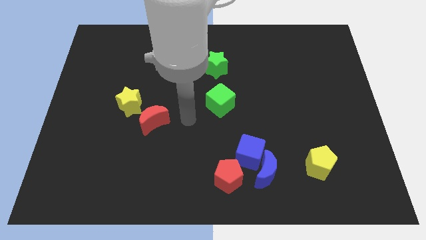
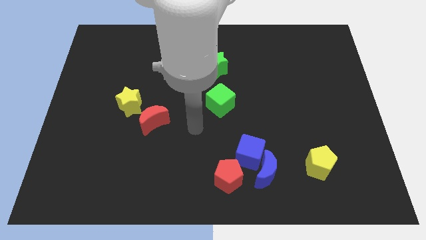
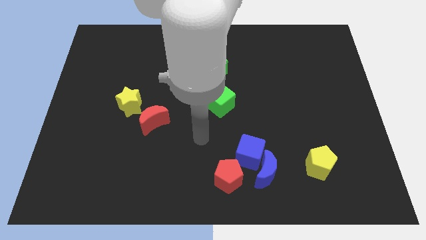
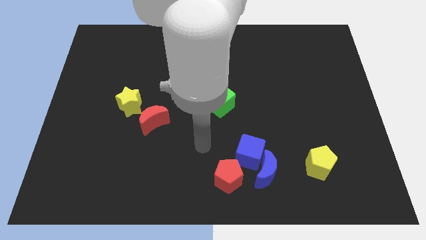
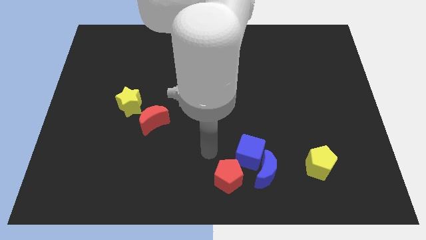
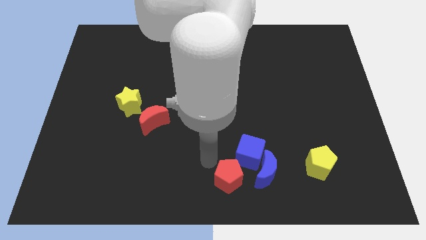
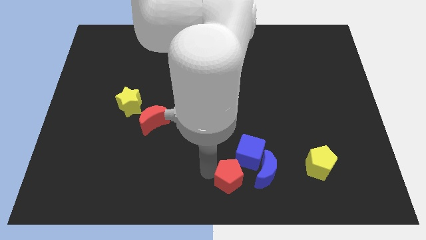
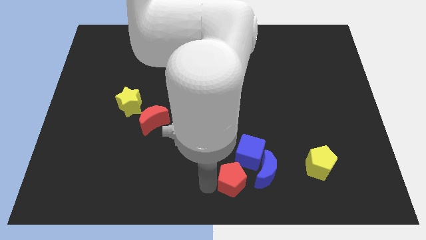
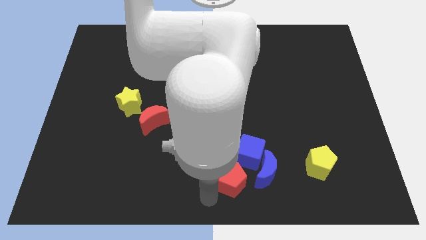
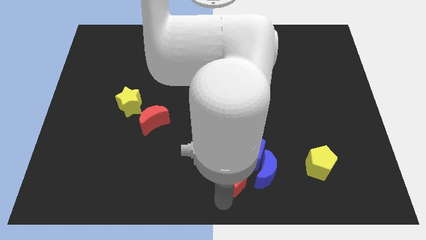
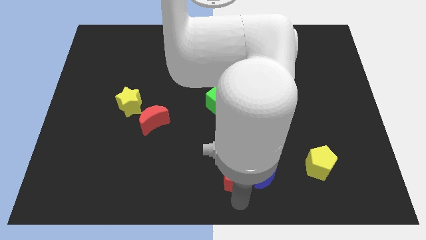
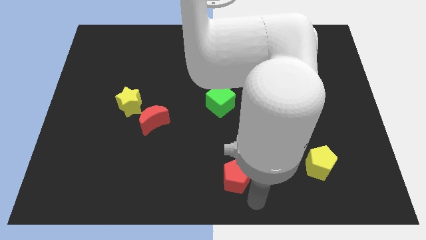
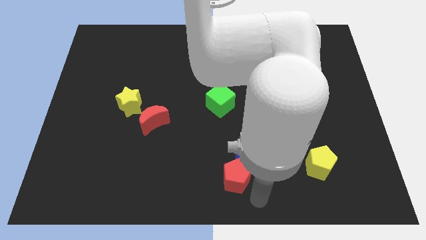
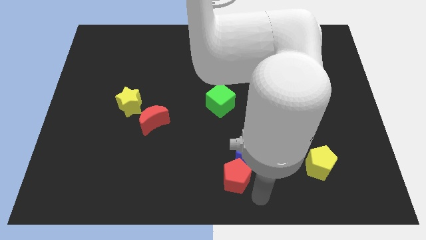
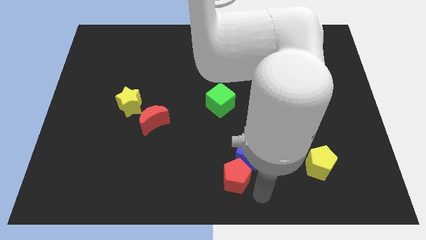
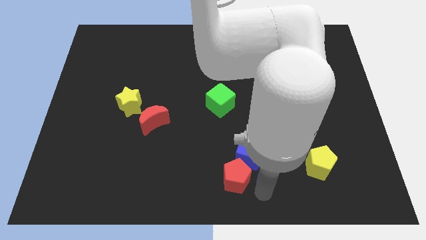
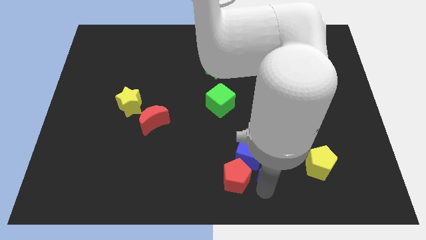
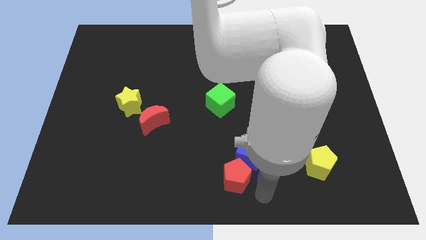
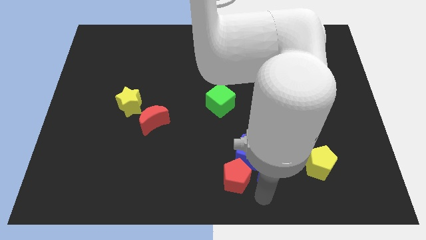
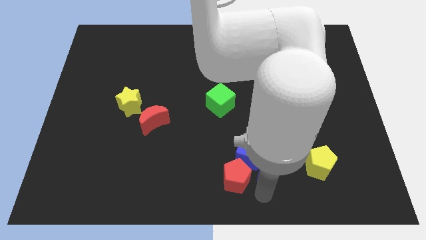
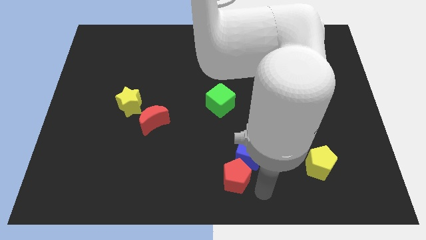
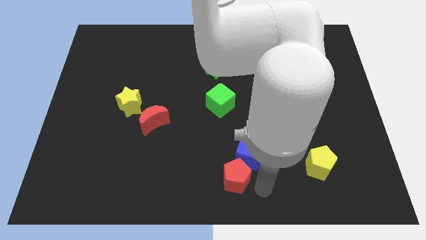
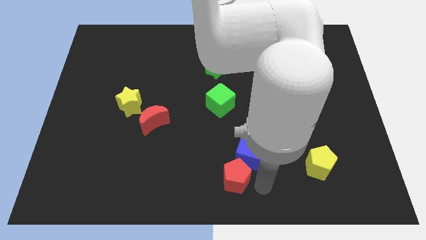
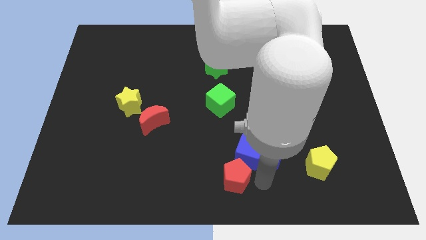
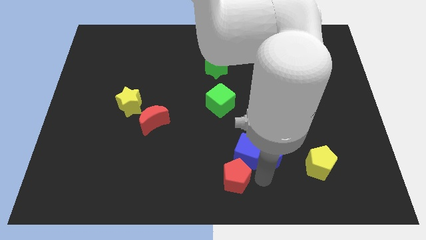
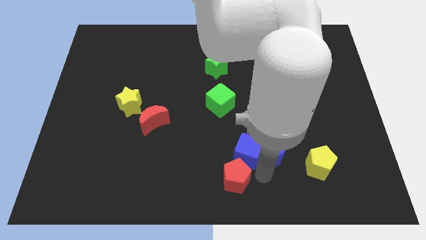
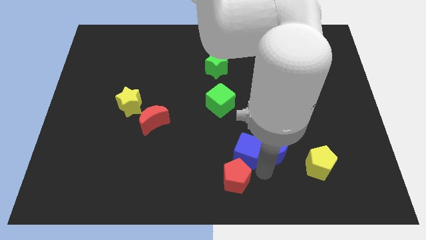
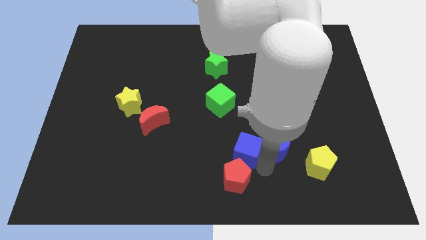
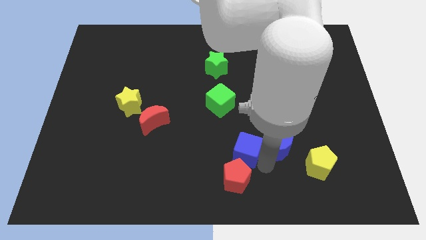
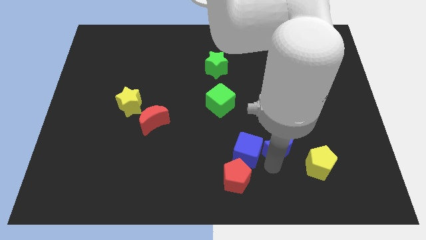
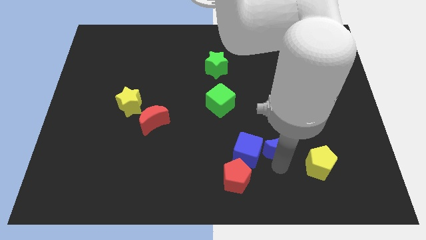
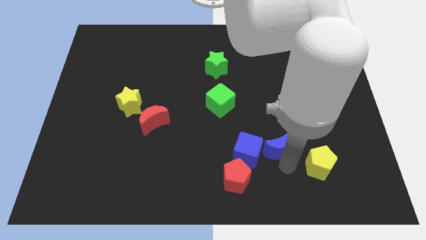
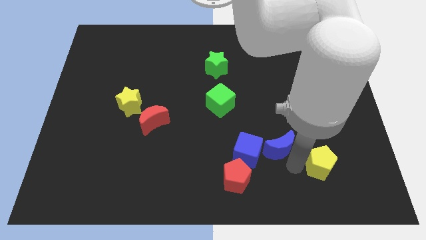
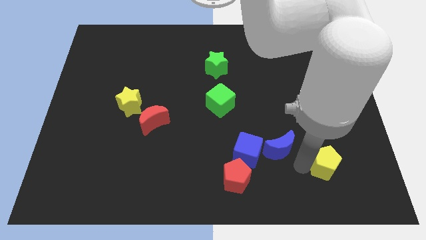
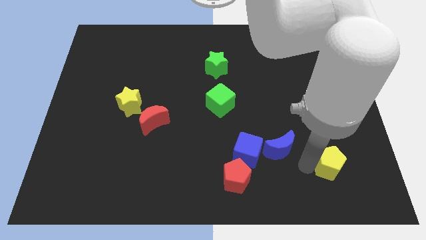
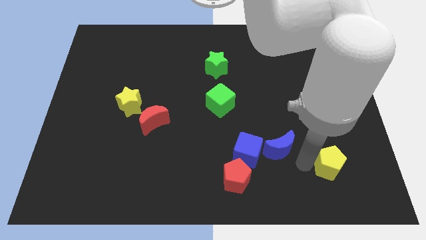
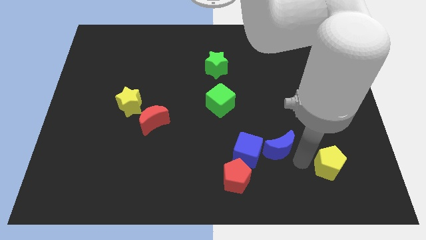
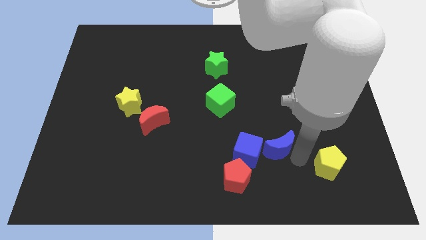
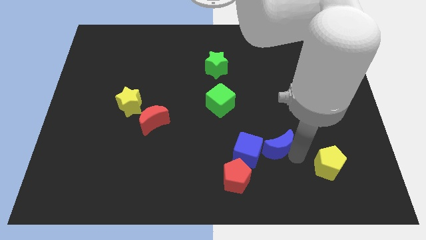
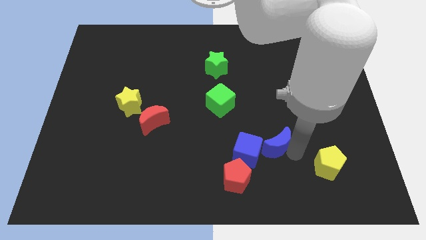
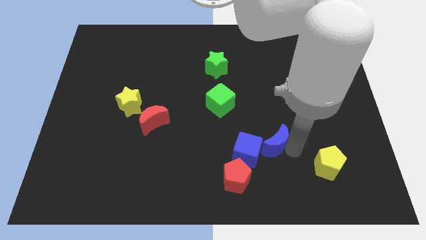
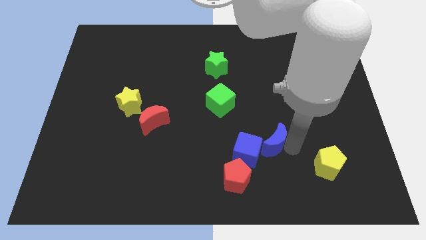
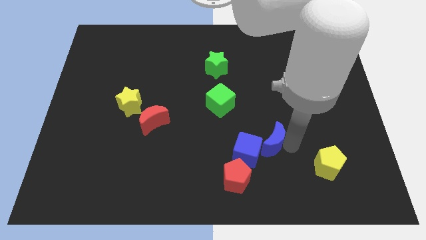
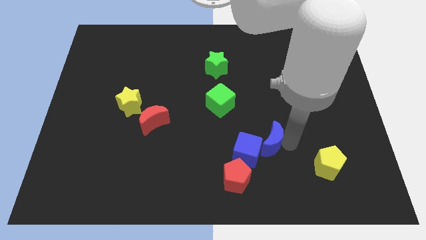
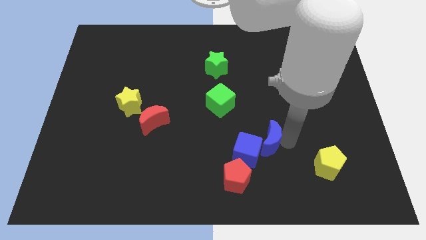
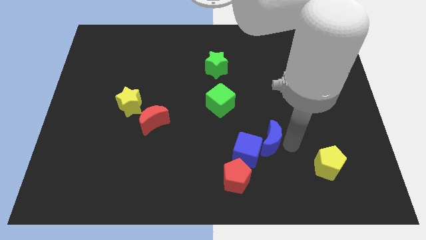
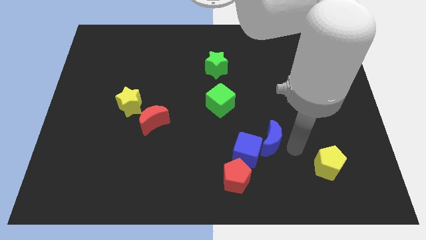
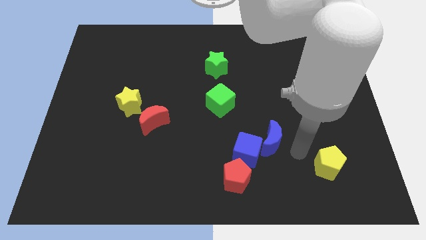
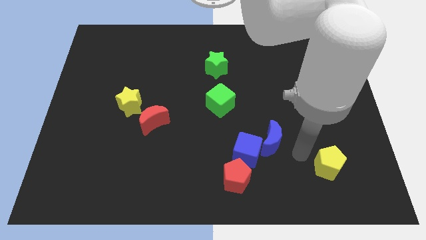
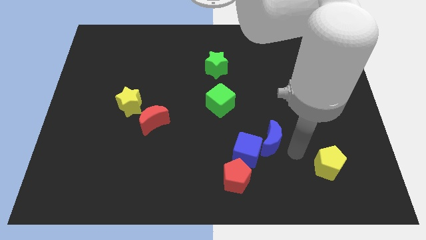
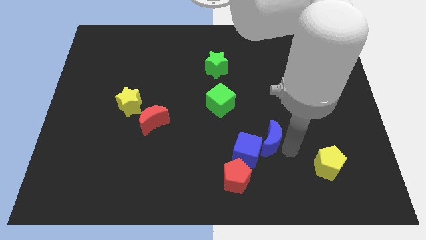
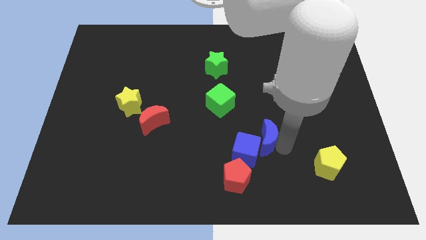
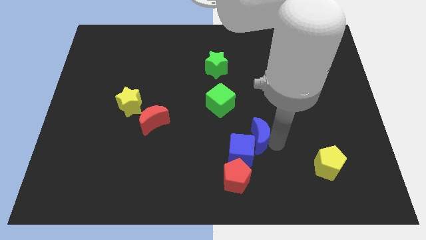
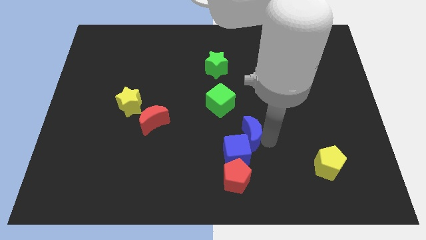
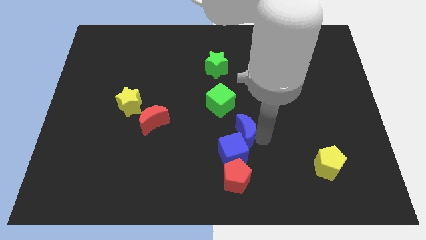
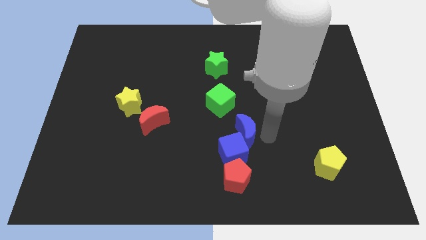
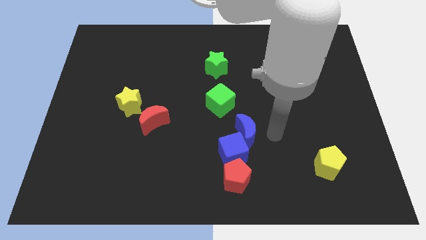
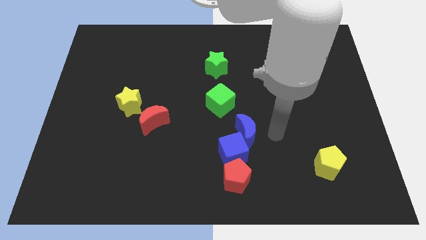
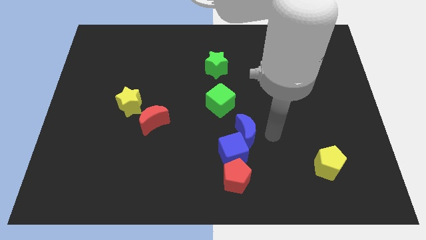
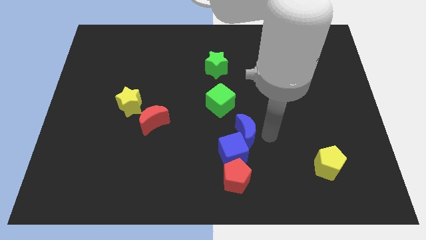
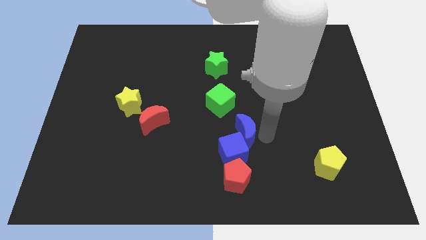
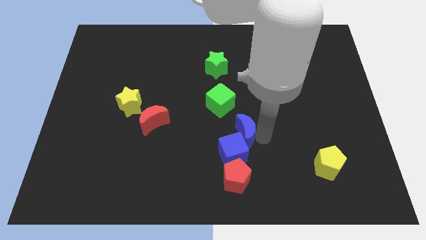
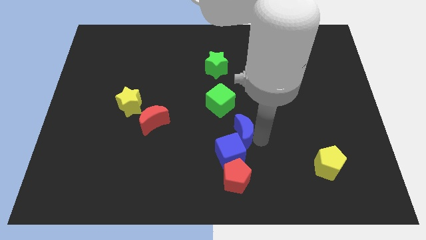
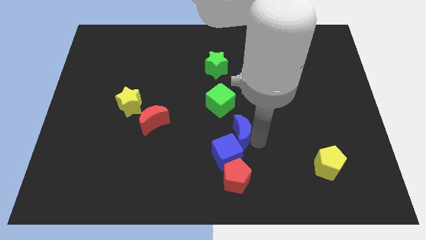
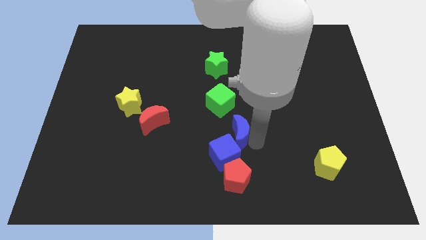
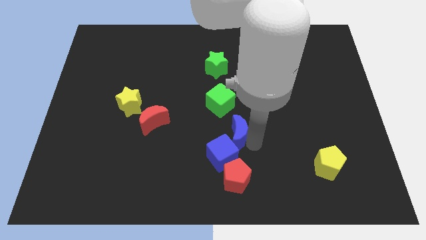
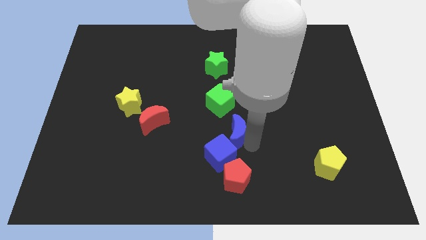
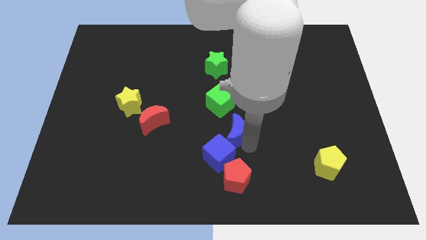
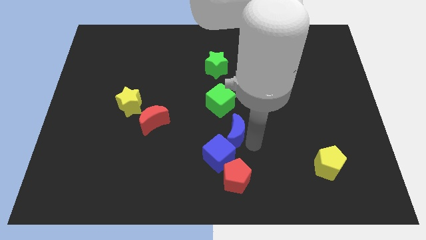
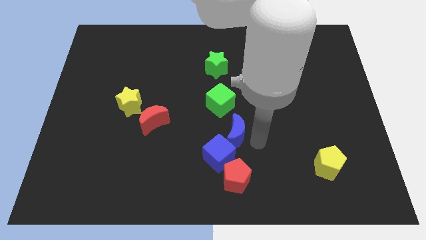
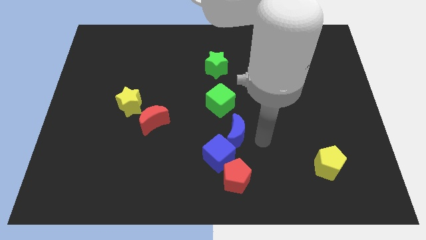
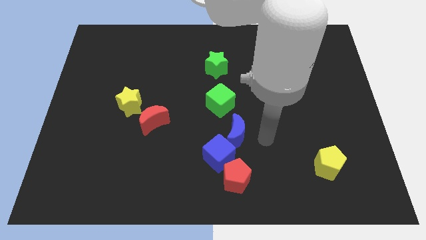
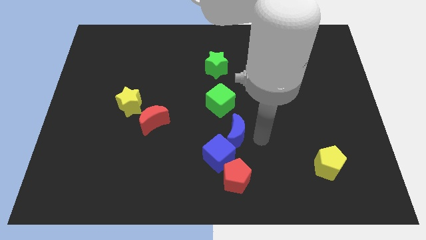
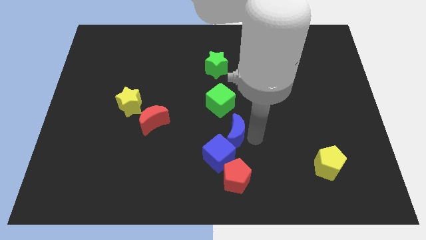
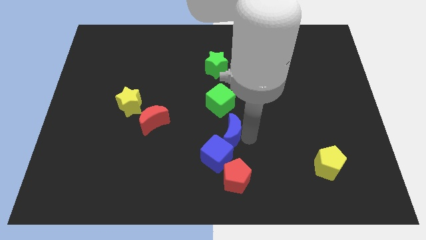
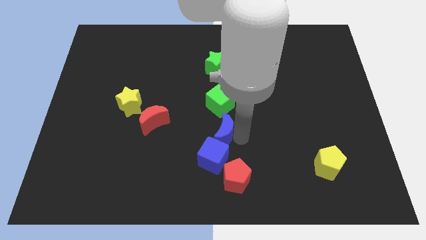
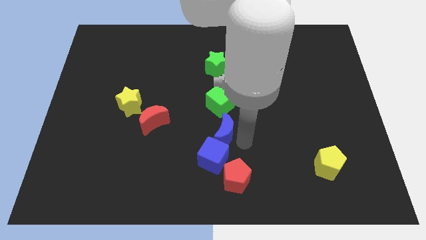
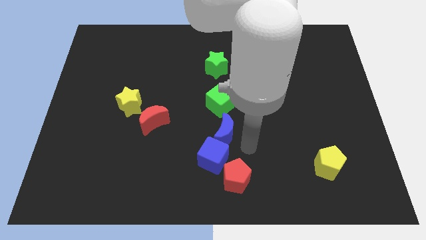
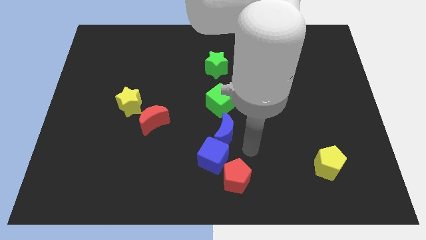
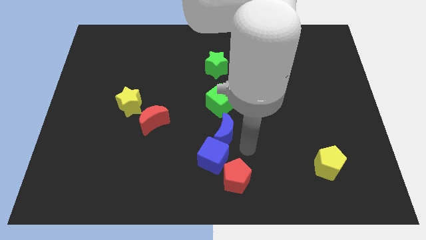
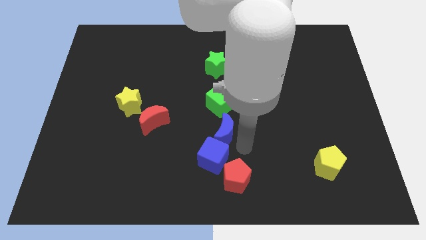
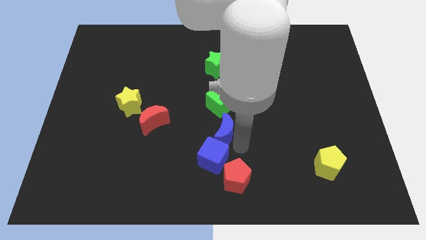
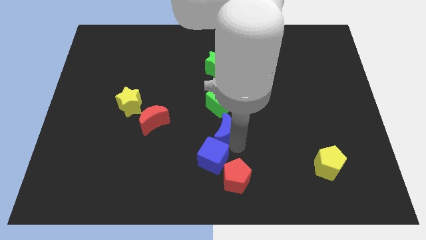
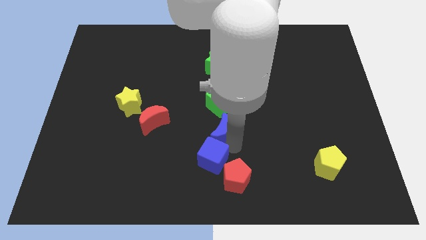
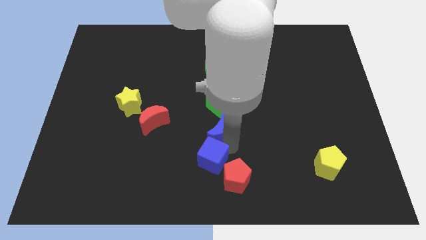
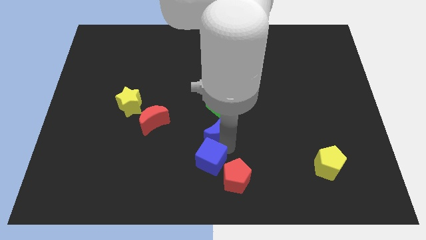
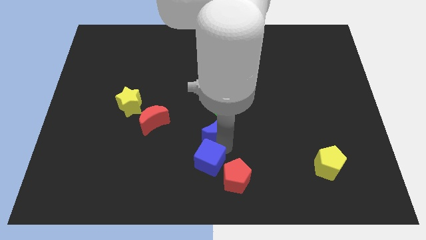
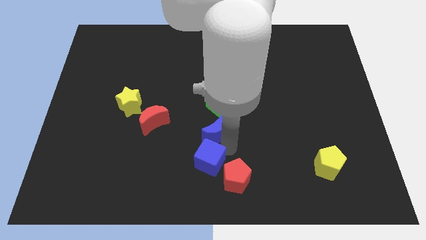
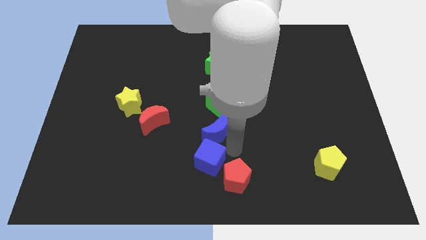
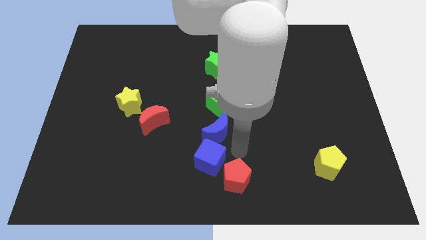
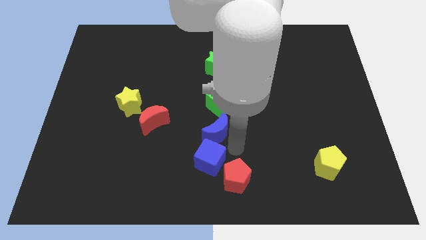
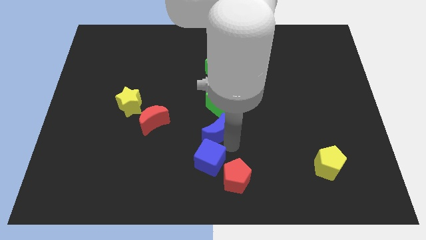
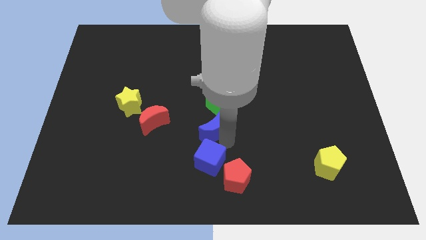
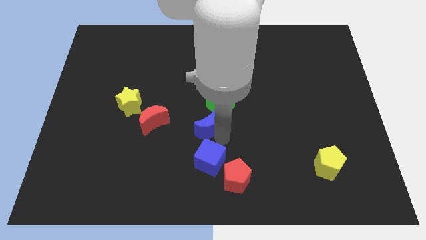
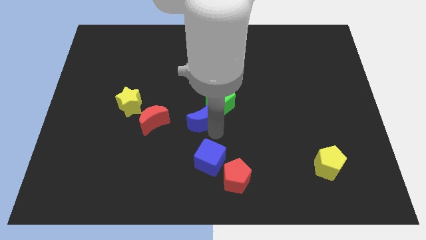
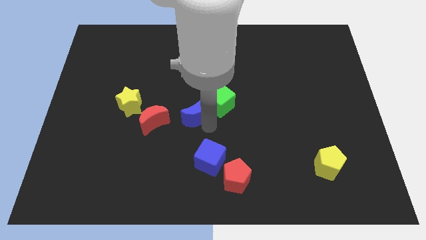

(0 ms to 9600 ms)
push the blue moon up and to the left
